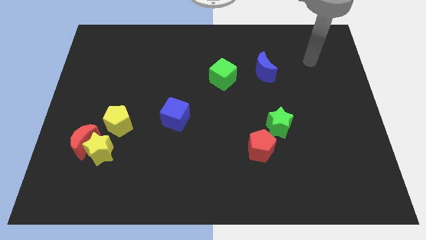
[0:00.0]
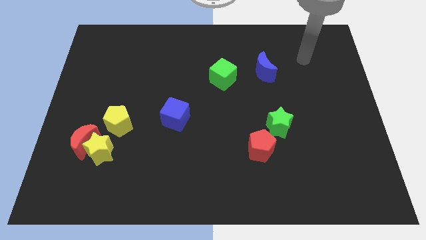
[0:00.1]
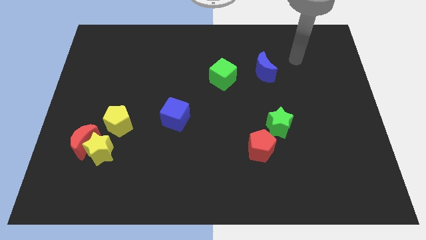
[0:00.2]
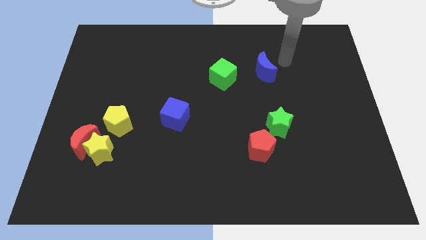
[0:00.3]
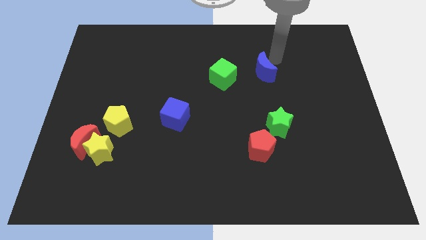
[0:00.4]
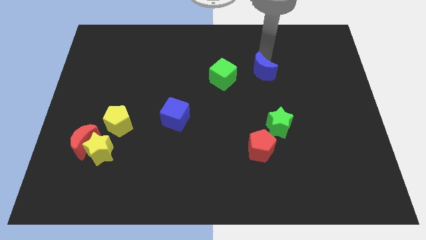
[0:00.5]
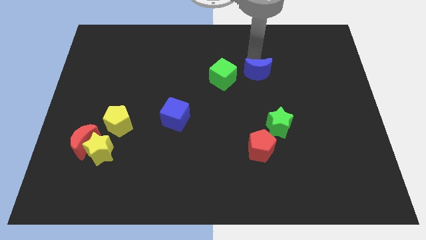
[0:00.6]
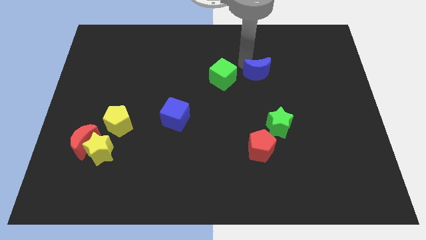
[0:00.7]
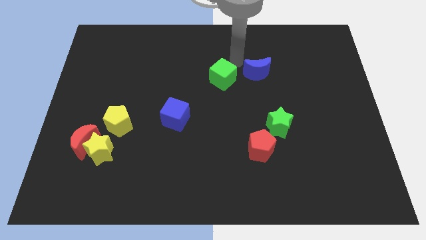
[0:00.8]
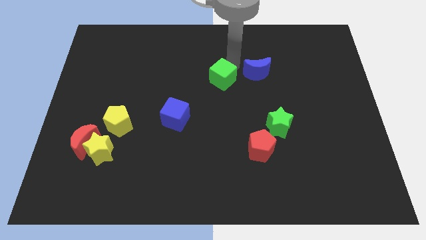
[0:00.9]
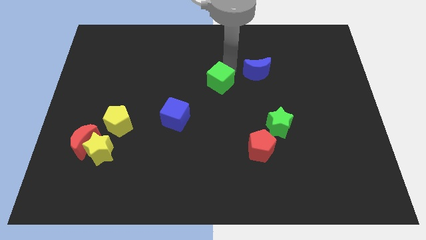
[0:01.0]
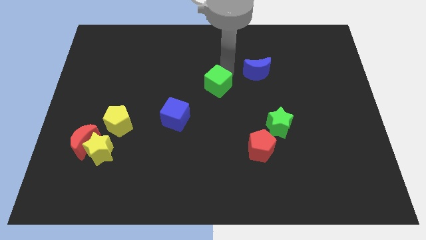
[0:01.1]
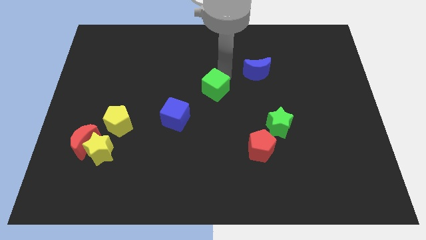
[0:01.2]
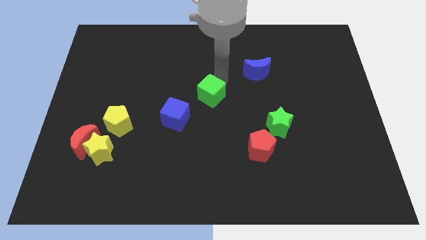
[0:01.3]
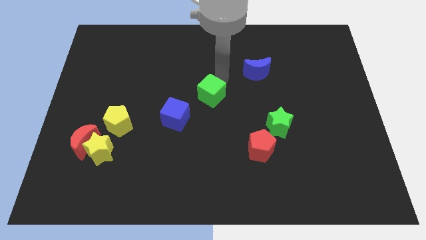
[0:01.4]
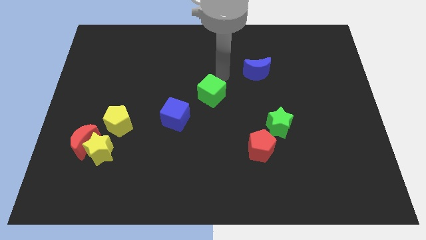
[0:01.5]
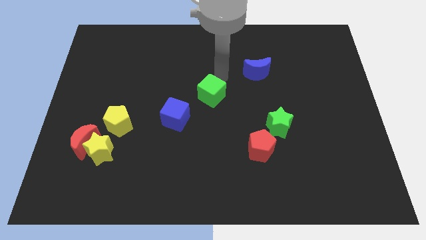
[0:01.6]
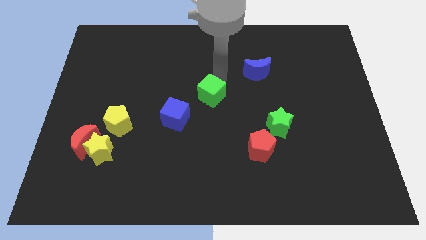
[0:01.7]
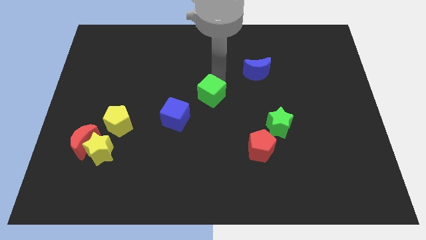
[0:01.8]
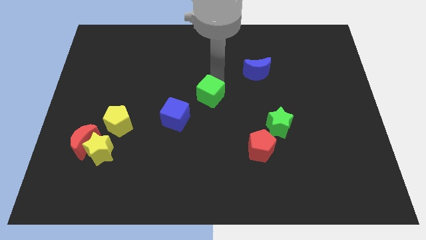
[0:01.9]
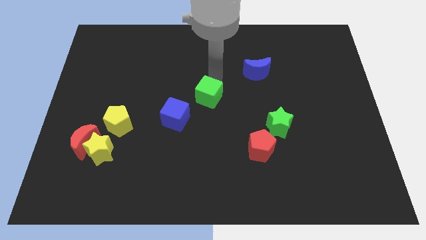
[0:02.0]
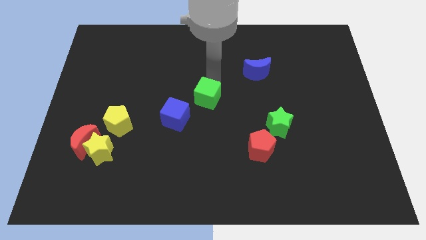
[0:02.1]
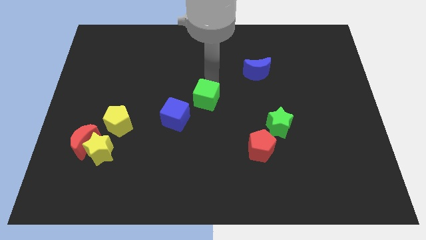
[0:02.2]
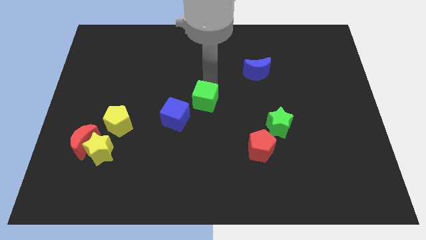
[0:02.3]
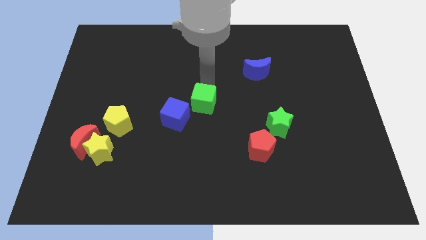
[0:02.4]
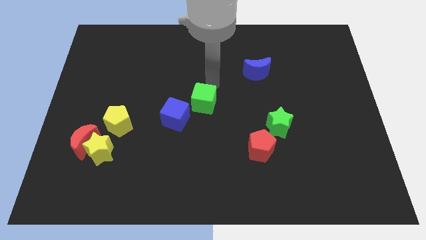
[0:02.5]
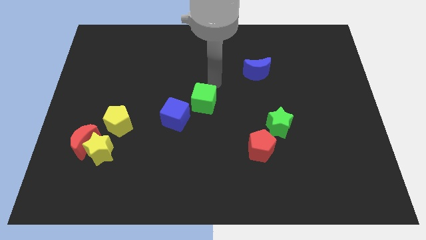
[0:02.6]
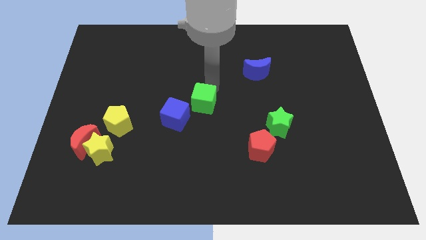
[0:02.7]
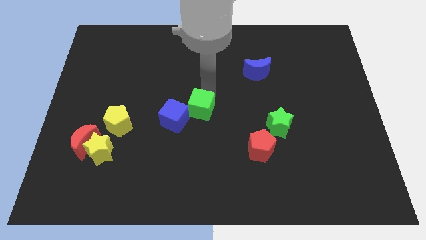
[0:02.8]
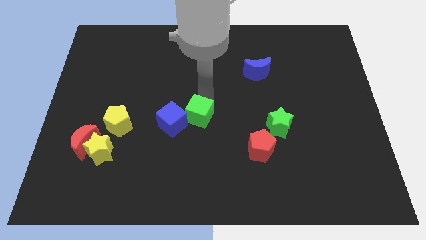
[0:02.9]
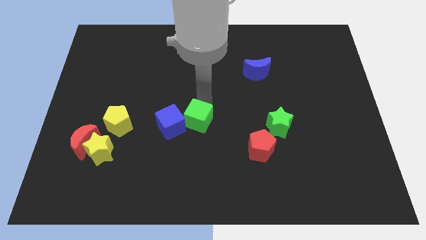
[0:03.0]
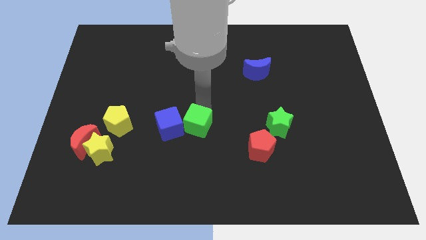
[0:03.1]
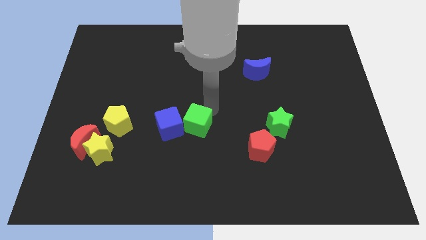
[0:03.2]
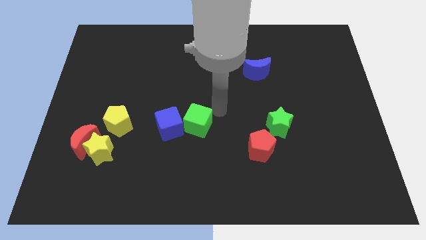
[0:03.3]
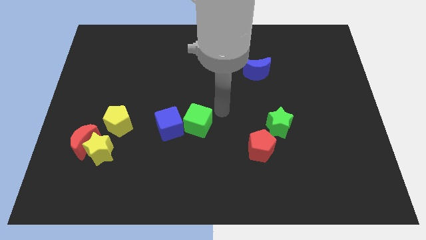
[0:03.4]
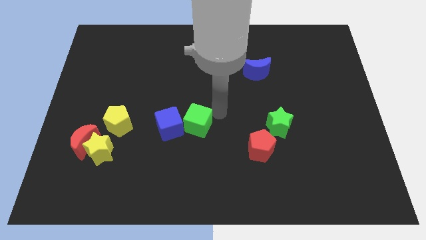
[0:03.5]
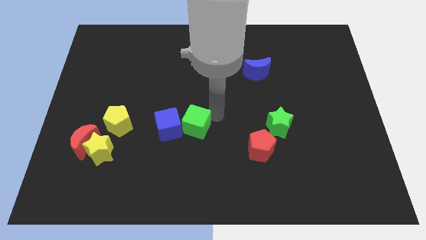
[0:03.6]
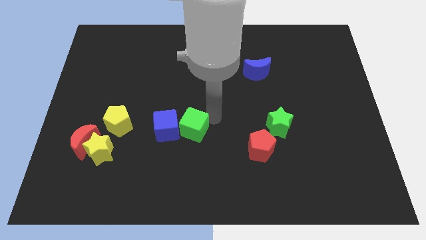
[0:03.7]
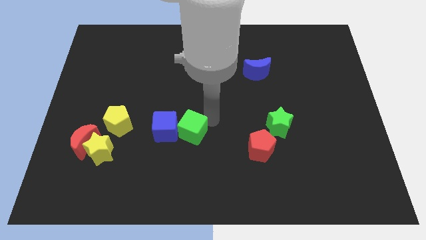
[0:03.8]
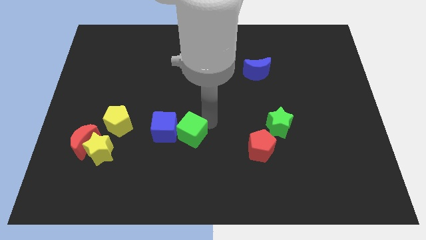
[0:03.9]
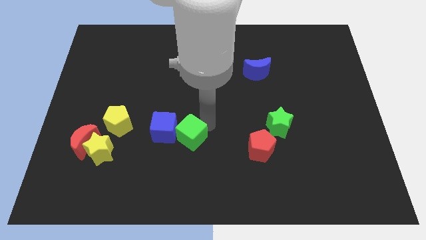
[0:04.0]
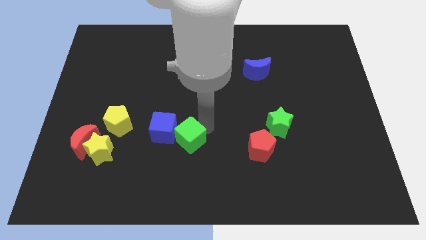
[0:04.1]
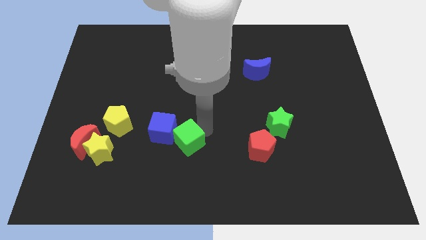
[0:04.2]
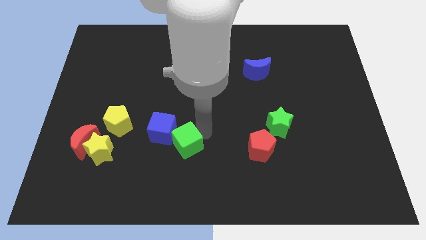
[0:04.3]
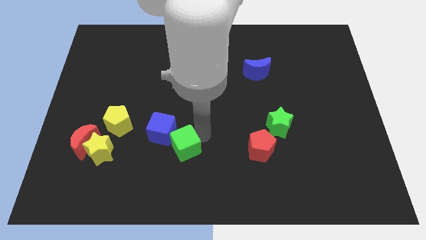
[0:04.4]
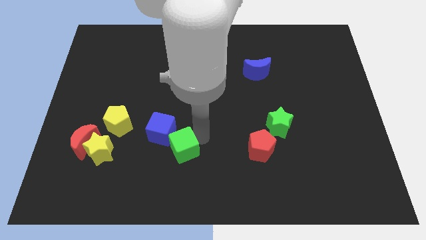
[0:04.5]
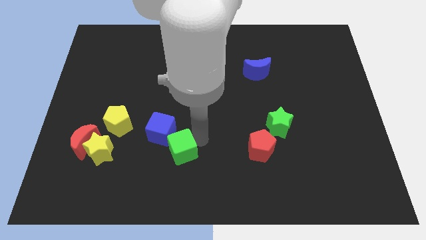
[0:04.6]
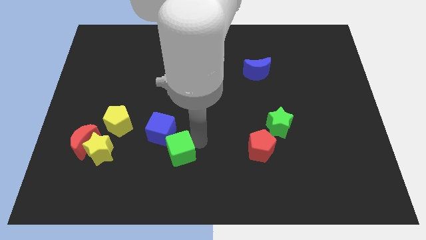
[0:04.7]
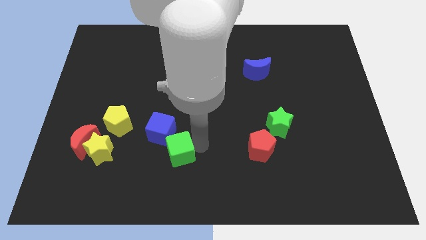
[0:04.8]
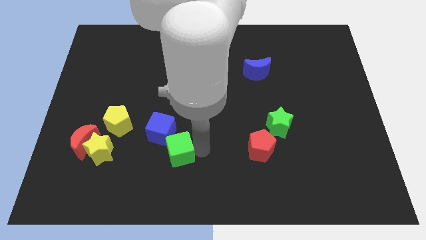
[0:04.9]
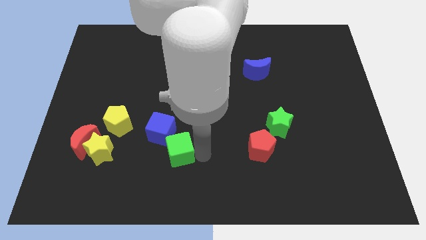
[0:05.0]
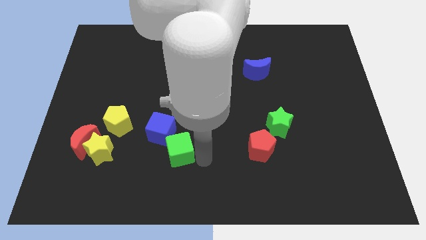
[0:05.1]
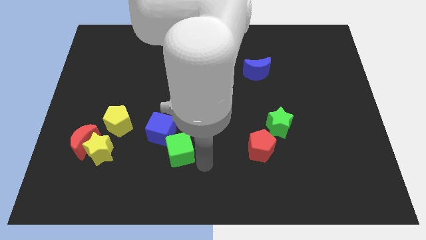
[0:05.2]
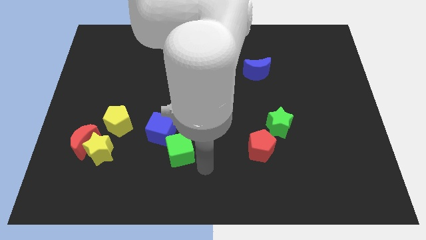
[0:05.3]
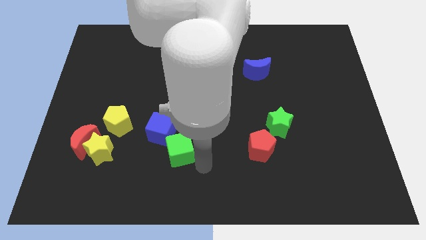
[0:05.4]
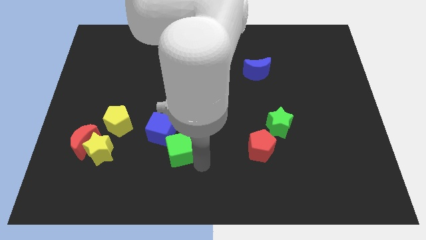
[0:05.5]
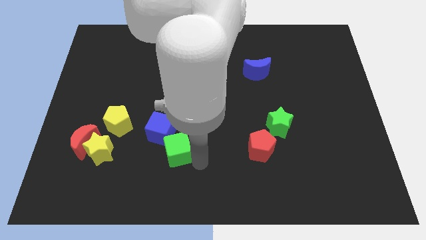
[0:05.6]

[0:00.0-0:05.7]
put the green cube to the right of the yellow star
